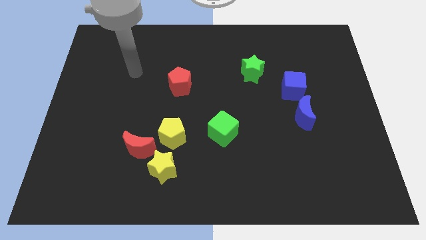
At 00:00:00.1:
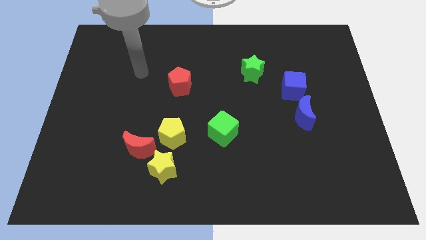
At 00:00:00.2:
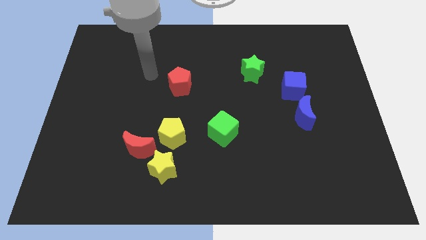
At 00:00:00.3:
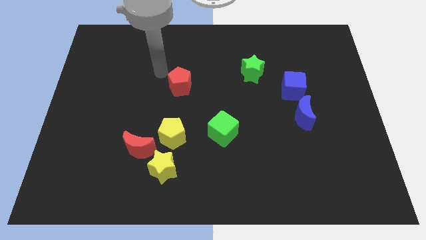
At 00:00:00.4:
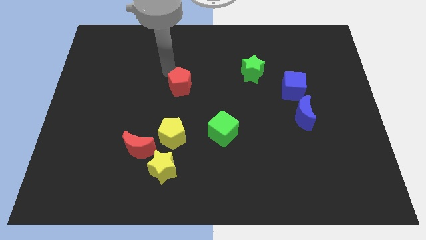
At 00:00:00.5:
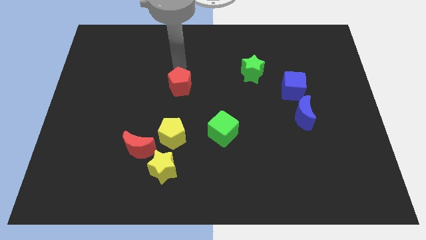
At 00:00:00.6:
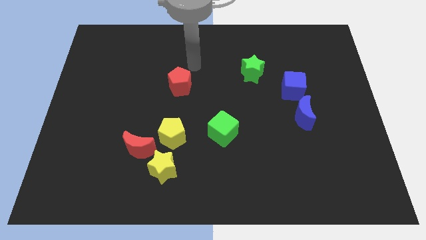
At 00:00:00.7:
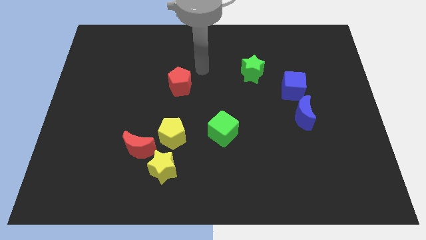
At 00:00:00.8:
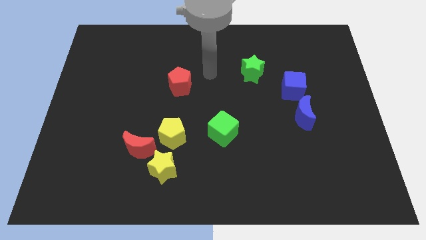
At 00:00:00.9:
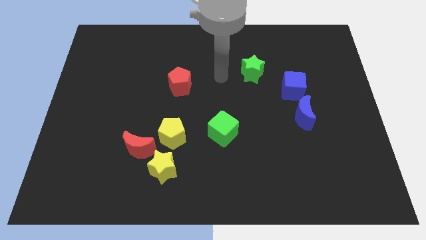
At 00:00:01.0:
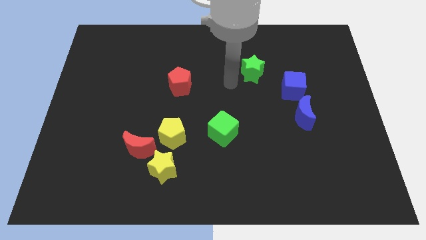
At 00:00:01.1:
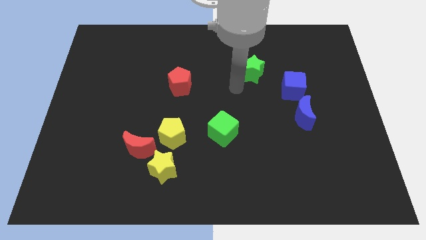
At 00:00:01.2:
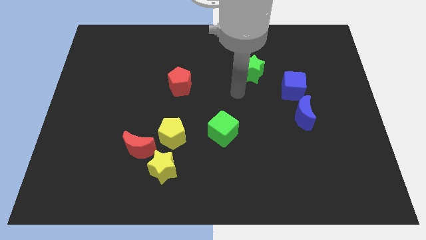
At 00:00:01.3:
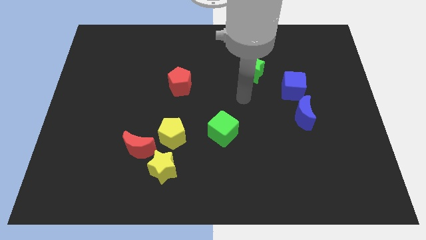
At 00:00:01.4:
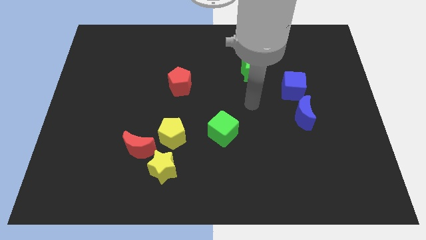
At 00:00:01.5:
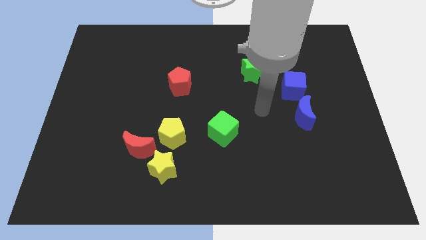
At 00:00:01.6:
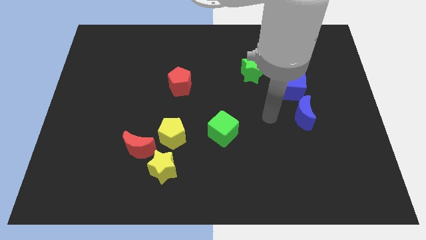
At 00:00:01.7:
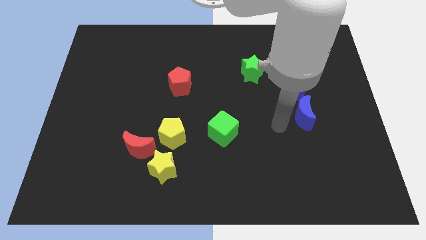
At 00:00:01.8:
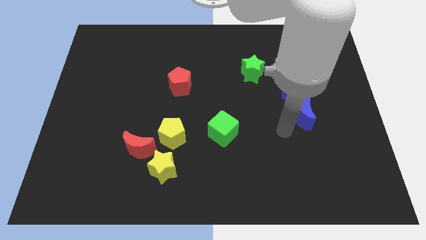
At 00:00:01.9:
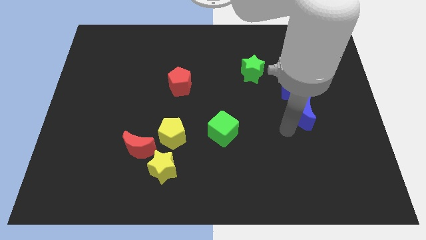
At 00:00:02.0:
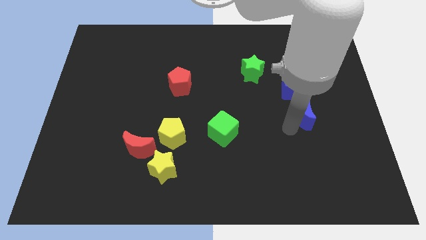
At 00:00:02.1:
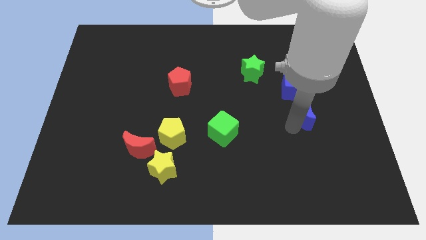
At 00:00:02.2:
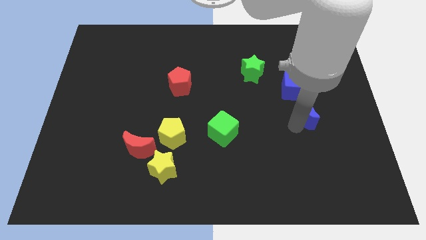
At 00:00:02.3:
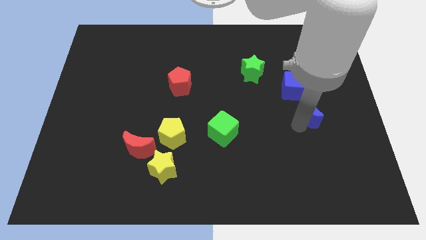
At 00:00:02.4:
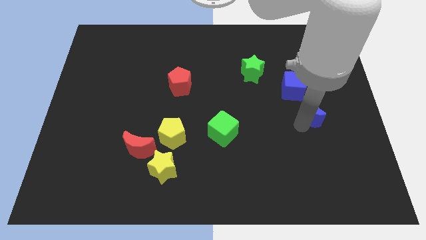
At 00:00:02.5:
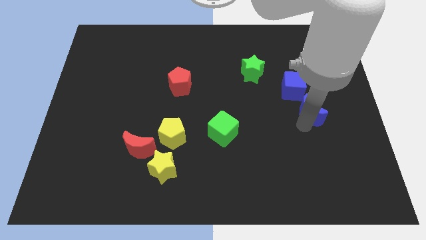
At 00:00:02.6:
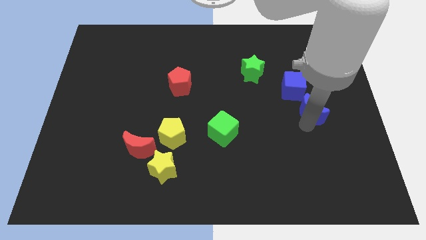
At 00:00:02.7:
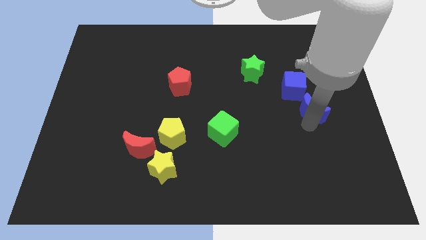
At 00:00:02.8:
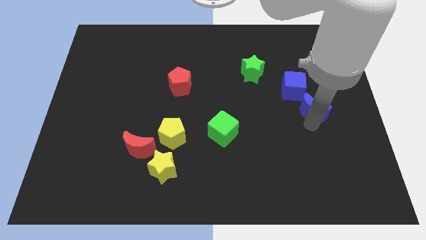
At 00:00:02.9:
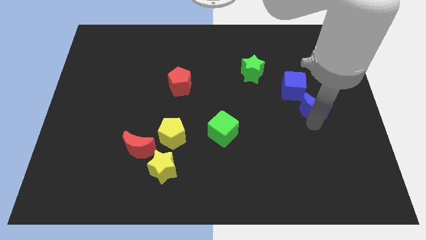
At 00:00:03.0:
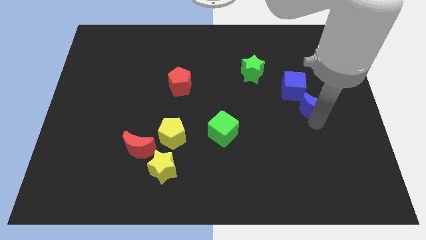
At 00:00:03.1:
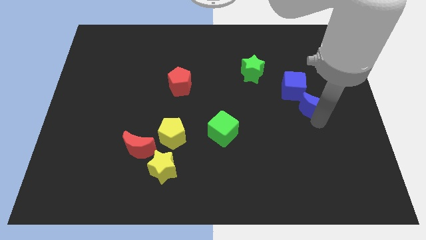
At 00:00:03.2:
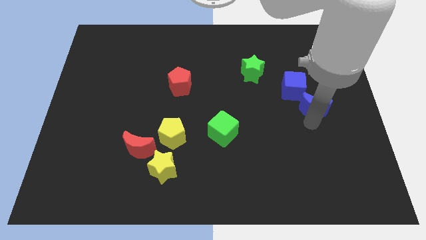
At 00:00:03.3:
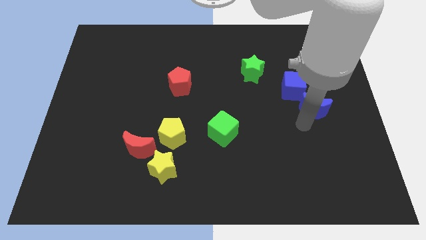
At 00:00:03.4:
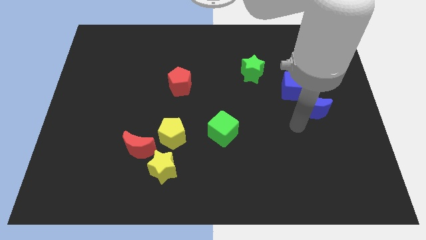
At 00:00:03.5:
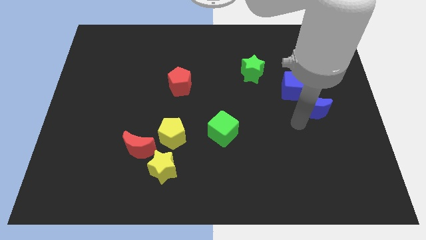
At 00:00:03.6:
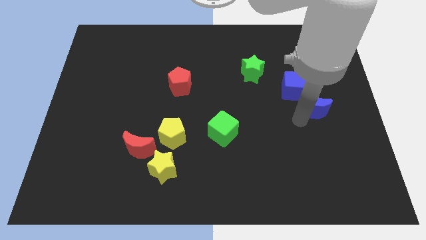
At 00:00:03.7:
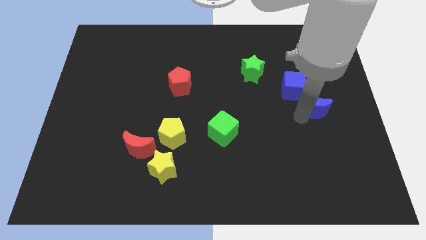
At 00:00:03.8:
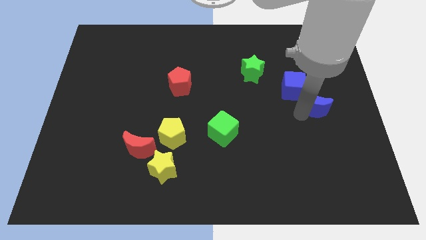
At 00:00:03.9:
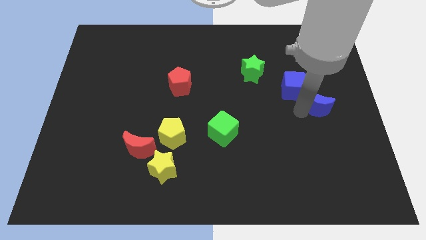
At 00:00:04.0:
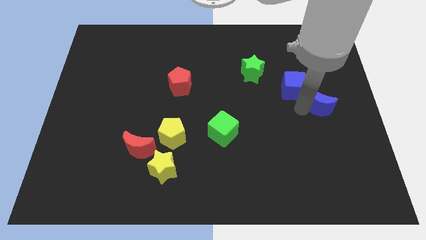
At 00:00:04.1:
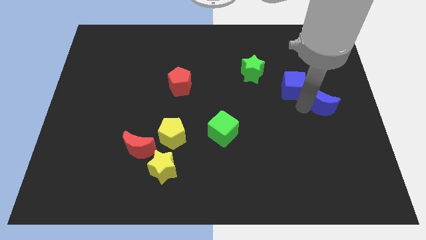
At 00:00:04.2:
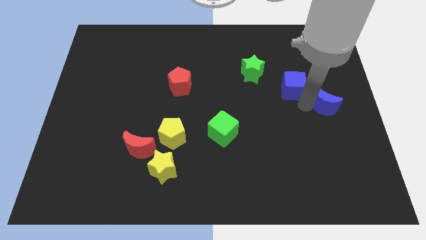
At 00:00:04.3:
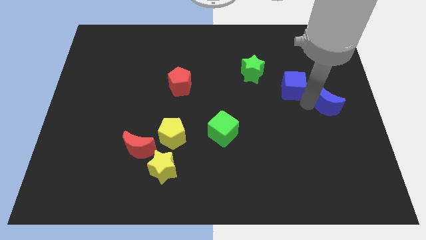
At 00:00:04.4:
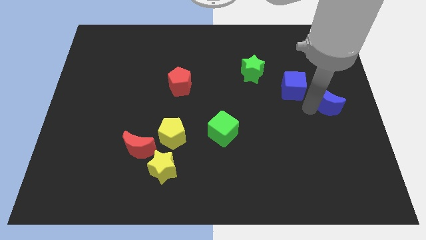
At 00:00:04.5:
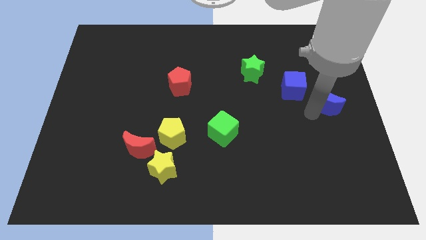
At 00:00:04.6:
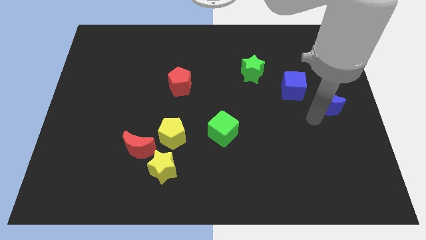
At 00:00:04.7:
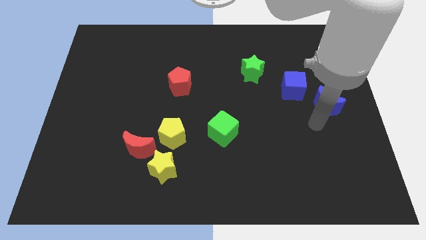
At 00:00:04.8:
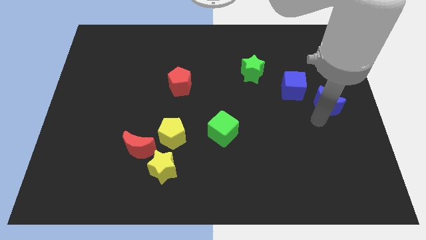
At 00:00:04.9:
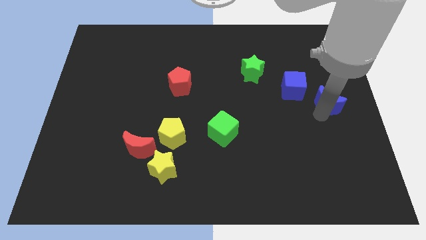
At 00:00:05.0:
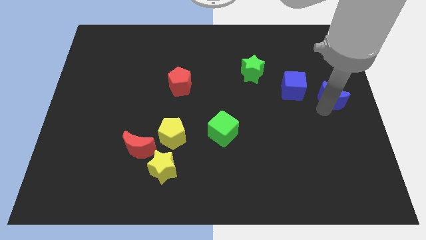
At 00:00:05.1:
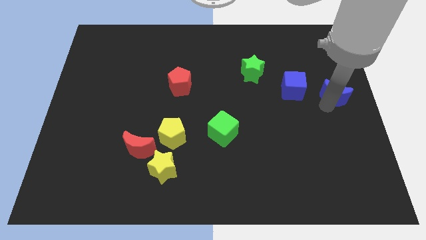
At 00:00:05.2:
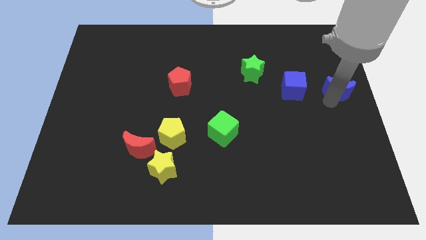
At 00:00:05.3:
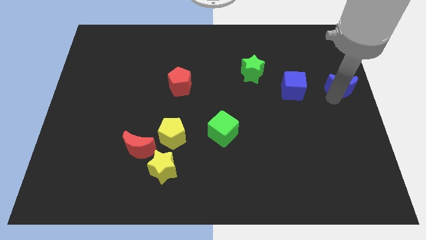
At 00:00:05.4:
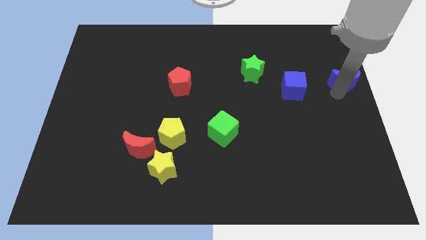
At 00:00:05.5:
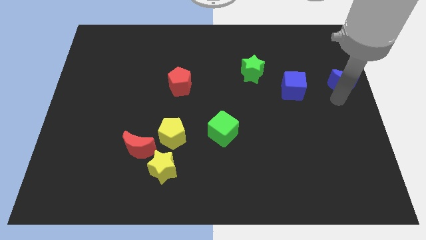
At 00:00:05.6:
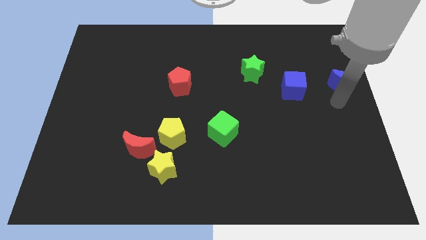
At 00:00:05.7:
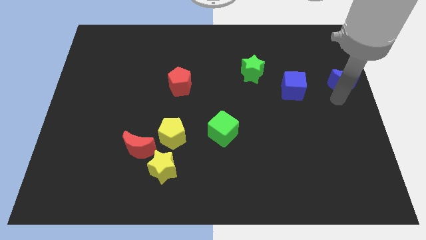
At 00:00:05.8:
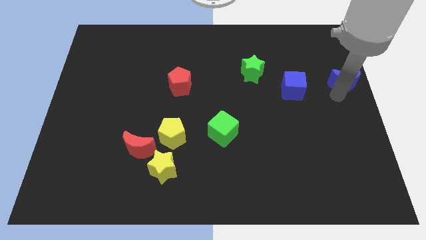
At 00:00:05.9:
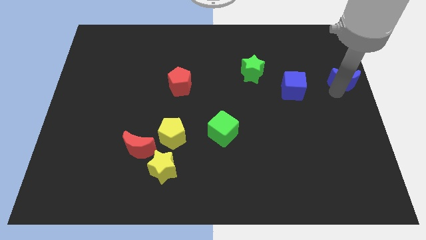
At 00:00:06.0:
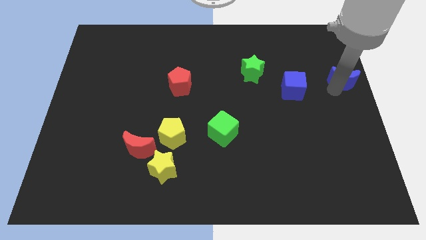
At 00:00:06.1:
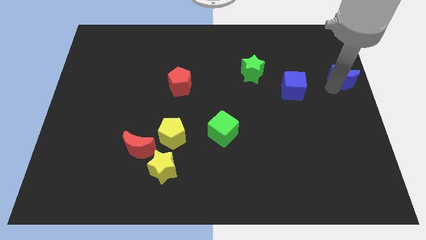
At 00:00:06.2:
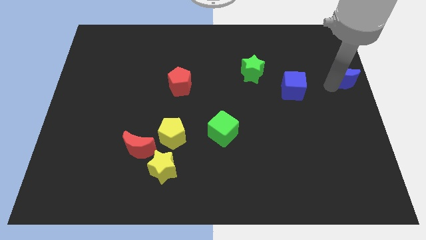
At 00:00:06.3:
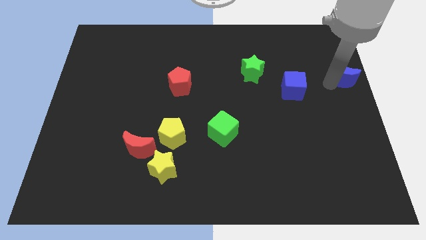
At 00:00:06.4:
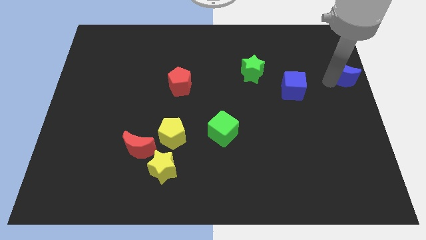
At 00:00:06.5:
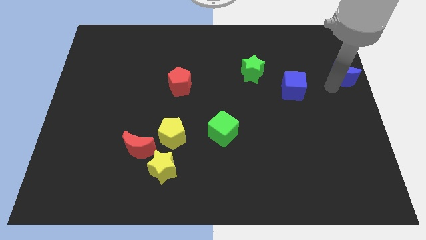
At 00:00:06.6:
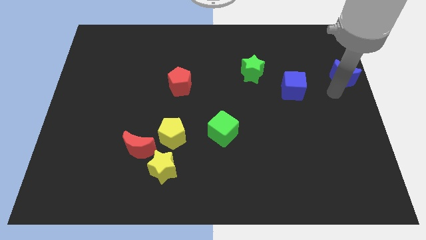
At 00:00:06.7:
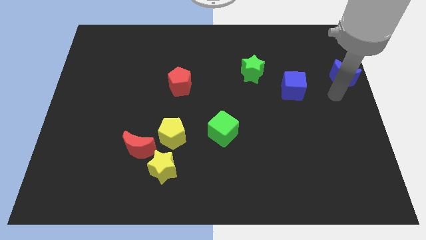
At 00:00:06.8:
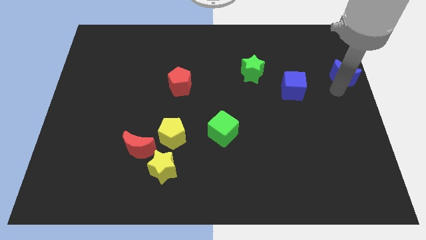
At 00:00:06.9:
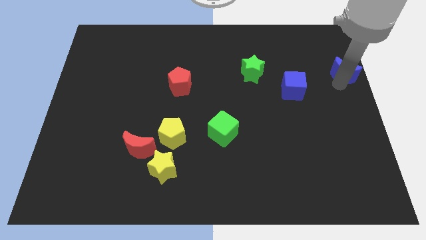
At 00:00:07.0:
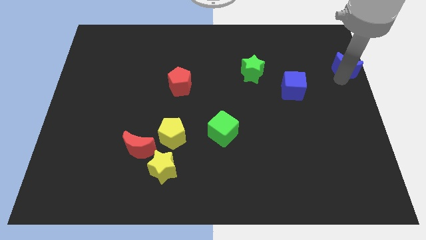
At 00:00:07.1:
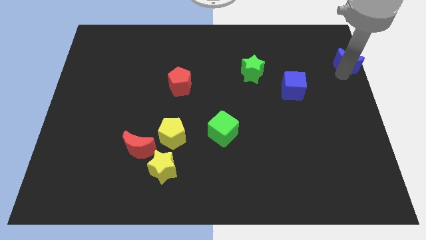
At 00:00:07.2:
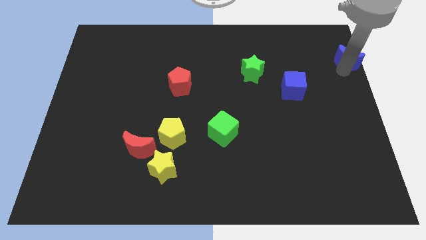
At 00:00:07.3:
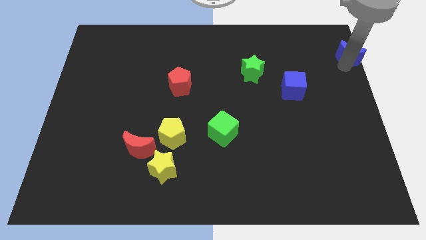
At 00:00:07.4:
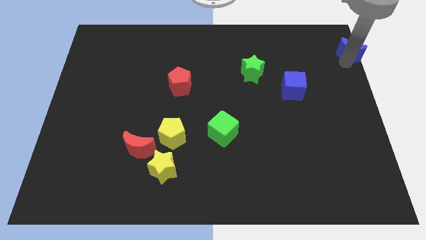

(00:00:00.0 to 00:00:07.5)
move the blue moon to the top right
